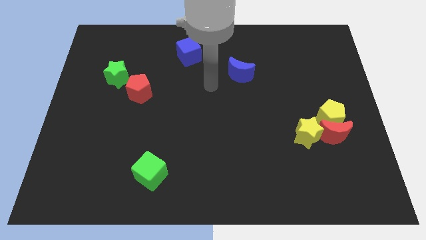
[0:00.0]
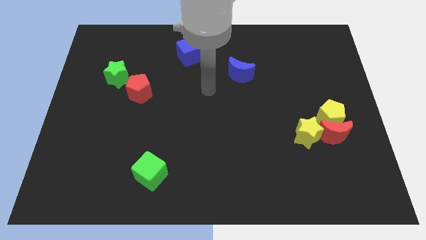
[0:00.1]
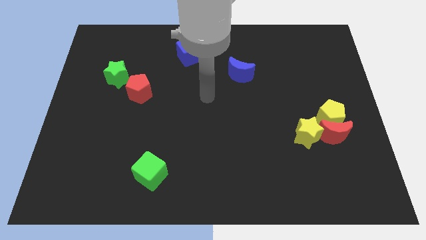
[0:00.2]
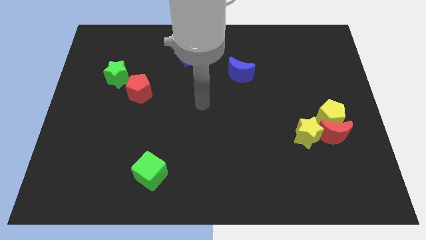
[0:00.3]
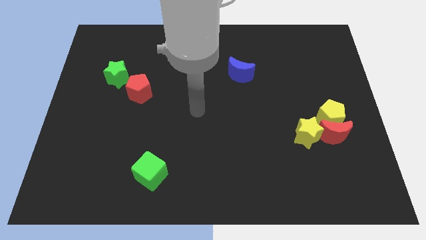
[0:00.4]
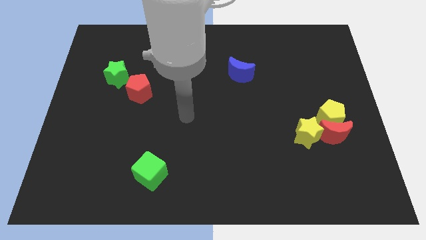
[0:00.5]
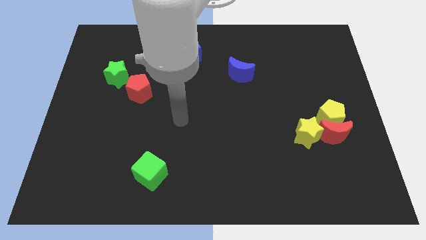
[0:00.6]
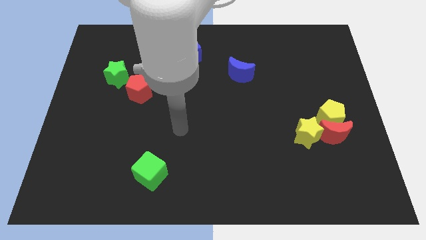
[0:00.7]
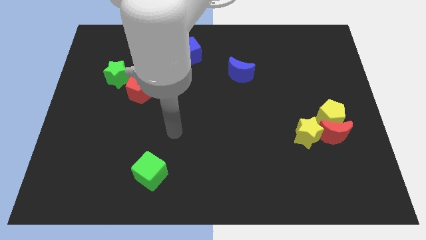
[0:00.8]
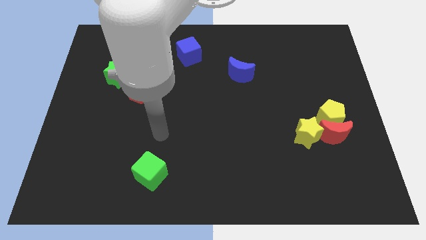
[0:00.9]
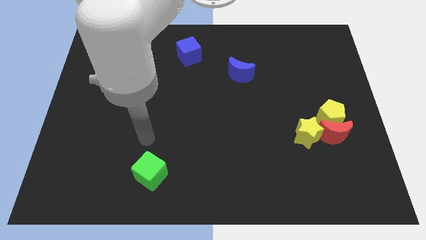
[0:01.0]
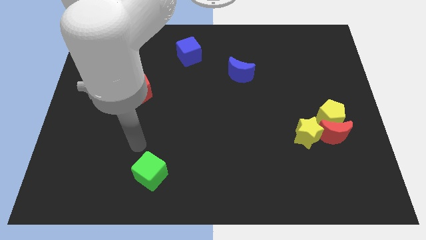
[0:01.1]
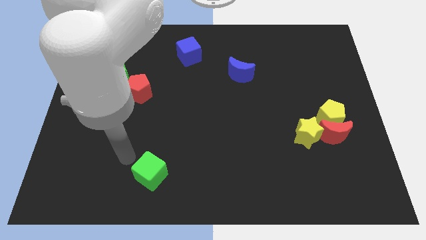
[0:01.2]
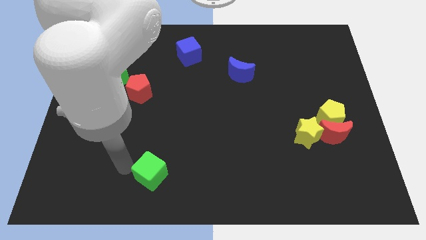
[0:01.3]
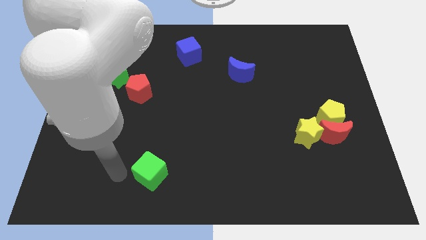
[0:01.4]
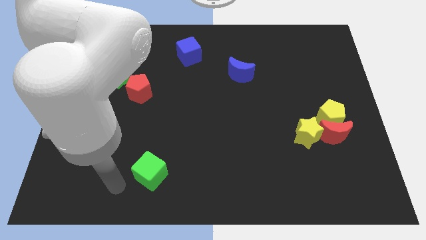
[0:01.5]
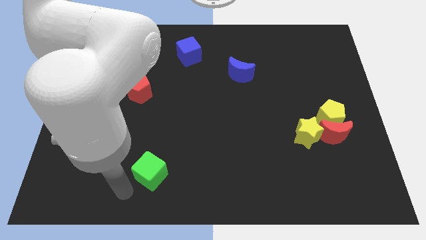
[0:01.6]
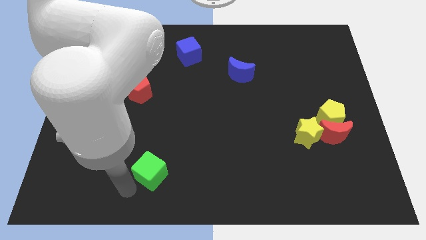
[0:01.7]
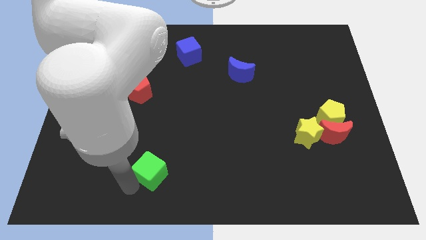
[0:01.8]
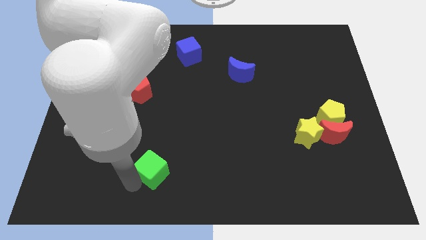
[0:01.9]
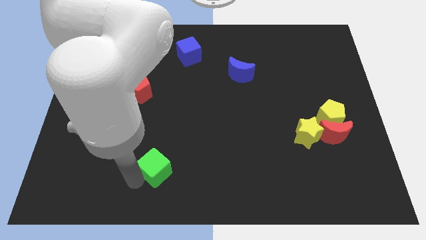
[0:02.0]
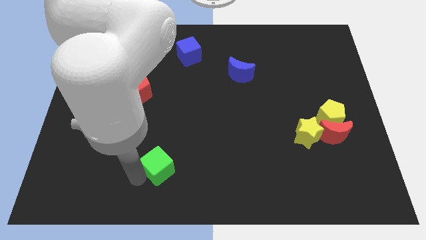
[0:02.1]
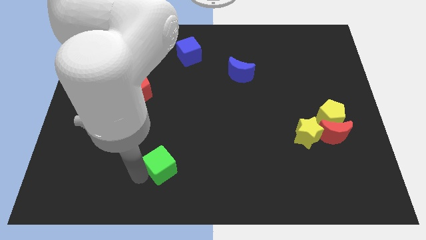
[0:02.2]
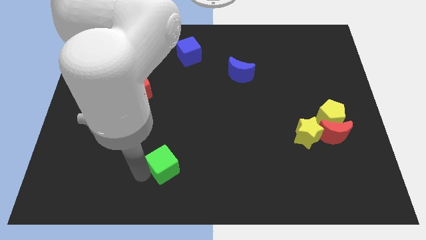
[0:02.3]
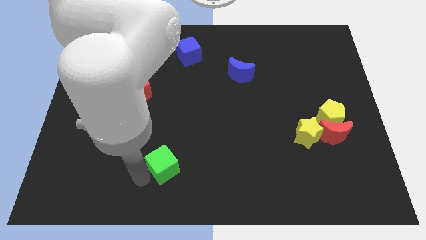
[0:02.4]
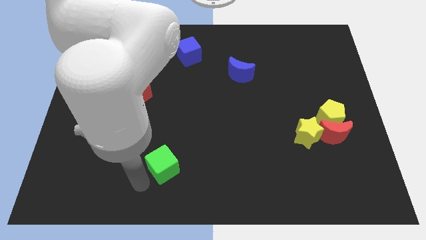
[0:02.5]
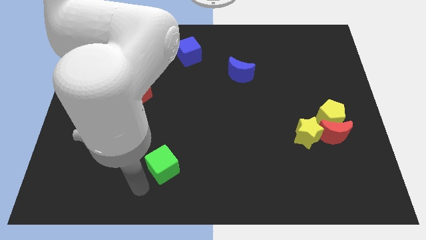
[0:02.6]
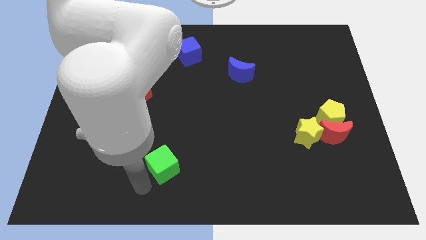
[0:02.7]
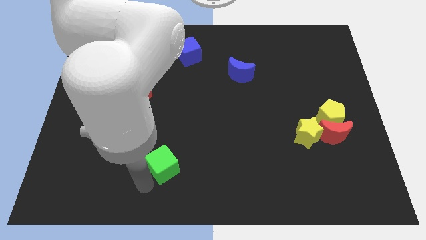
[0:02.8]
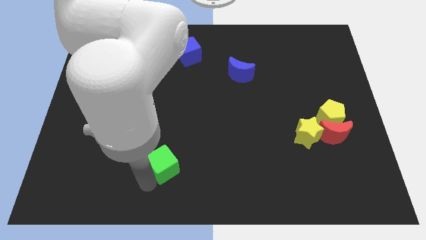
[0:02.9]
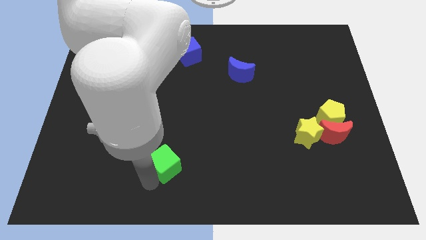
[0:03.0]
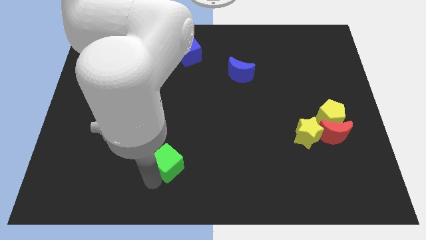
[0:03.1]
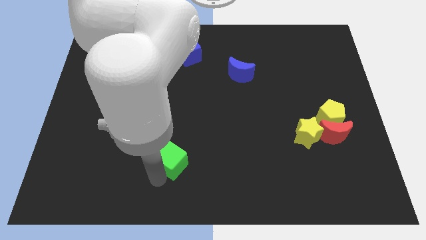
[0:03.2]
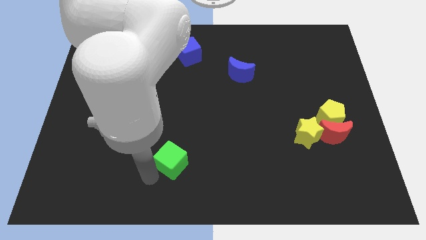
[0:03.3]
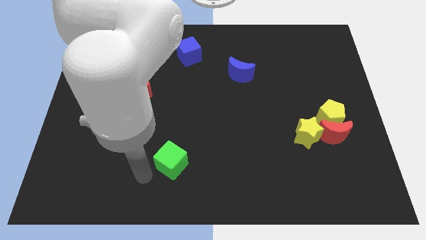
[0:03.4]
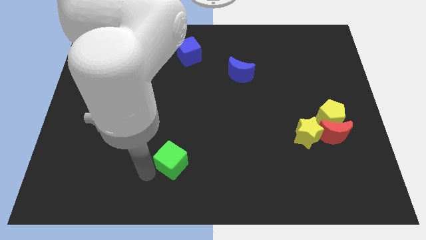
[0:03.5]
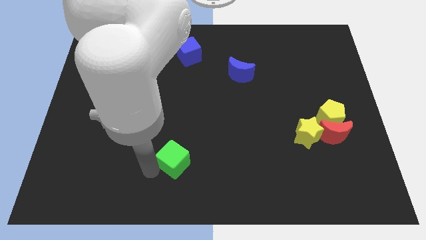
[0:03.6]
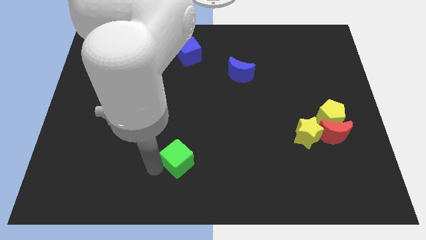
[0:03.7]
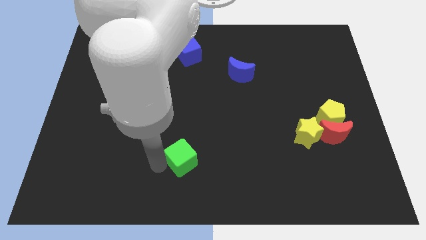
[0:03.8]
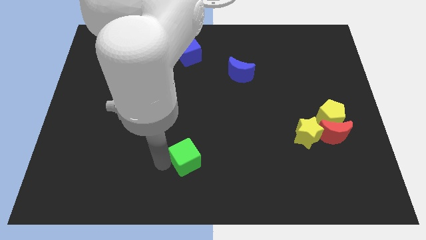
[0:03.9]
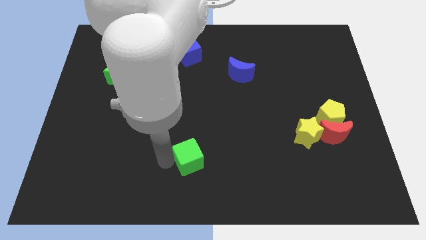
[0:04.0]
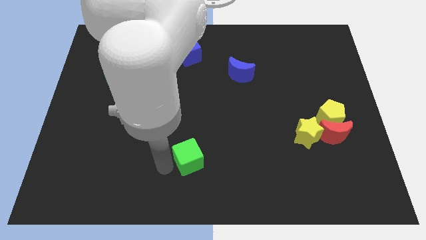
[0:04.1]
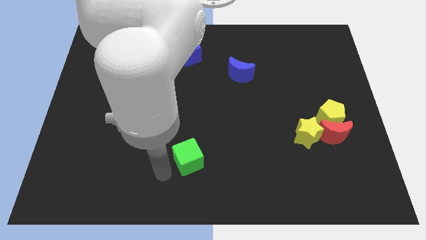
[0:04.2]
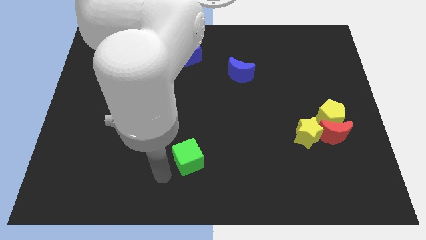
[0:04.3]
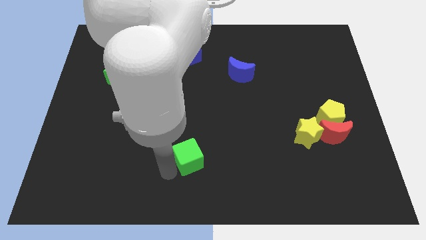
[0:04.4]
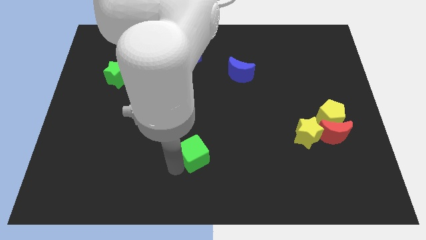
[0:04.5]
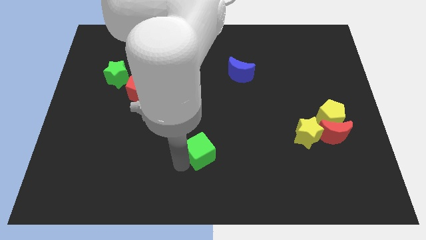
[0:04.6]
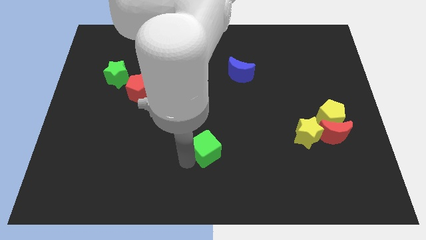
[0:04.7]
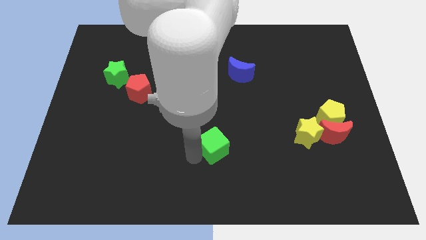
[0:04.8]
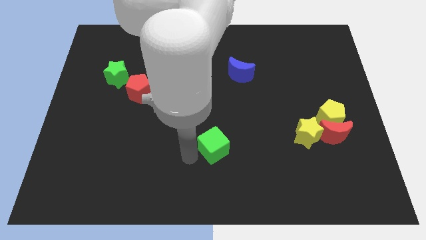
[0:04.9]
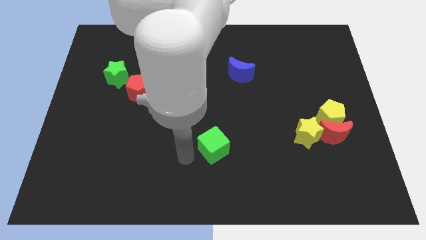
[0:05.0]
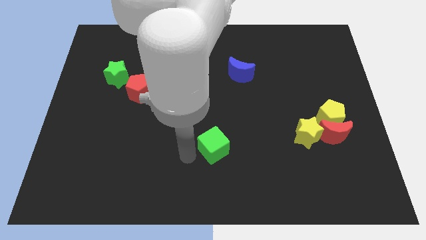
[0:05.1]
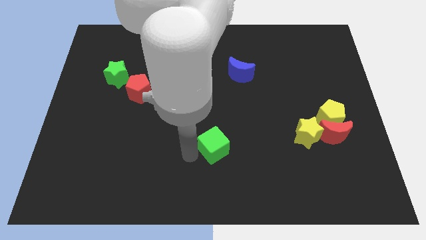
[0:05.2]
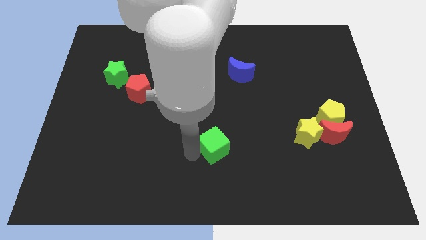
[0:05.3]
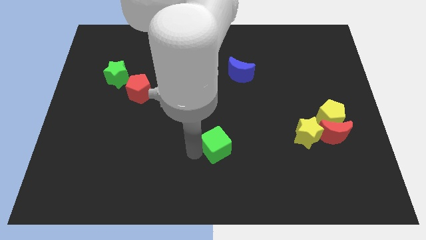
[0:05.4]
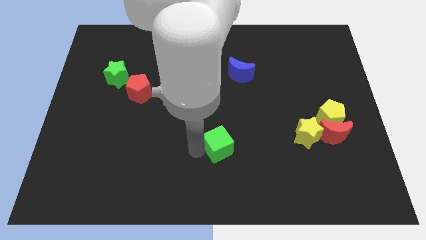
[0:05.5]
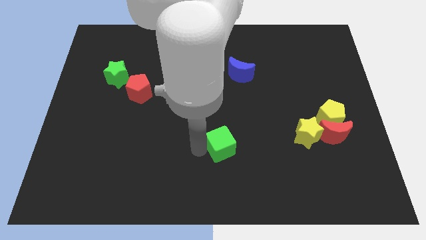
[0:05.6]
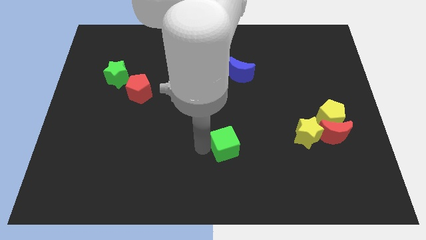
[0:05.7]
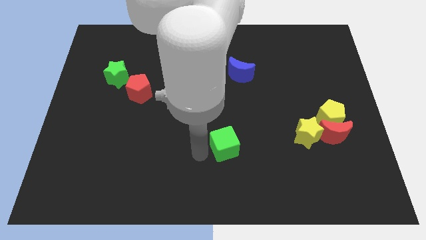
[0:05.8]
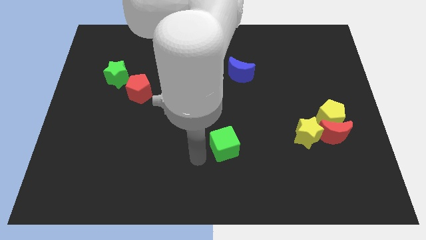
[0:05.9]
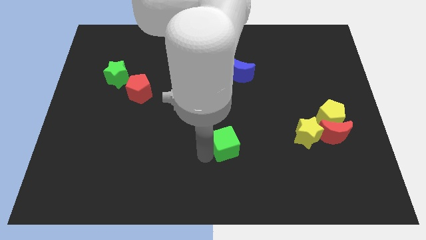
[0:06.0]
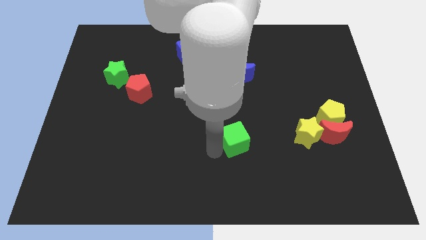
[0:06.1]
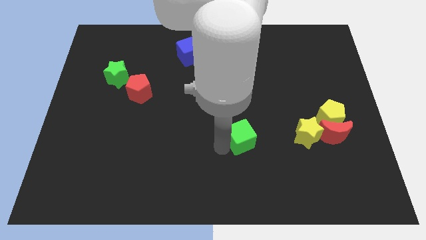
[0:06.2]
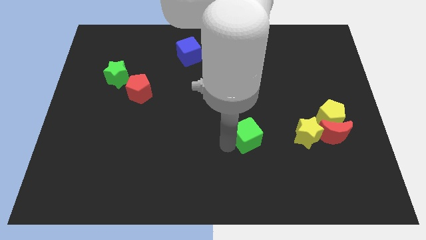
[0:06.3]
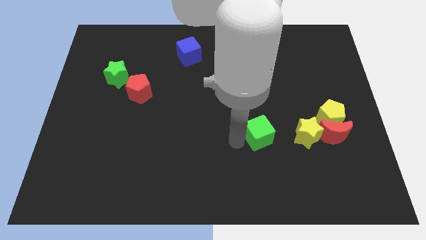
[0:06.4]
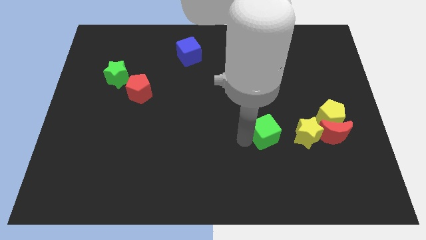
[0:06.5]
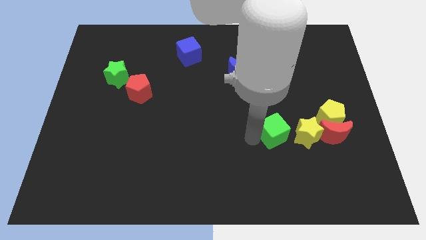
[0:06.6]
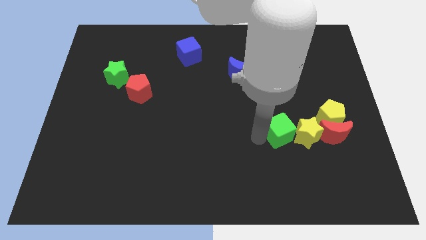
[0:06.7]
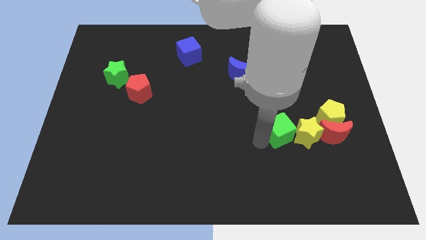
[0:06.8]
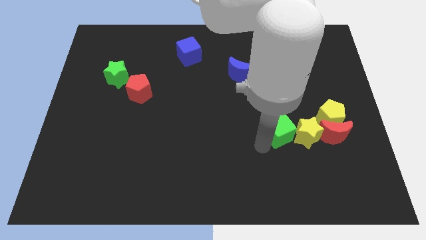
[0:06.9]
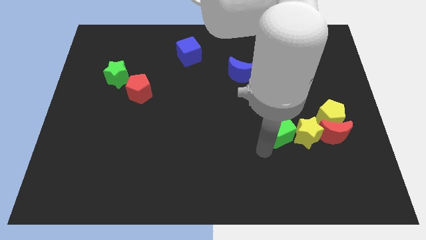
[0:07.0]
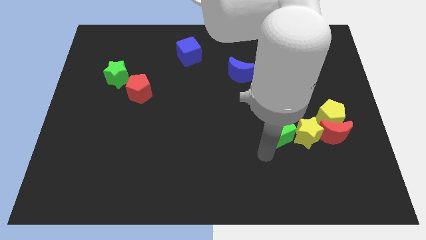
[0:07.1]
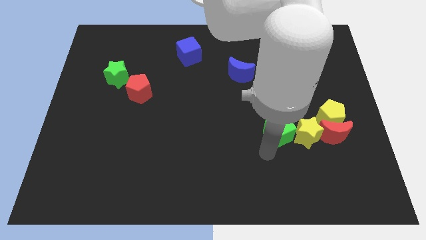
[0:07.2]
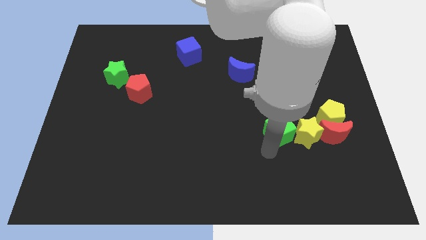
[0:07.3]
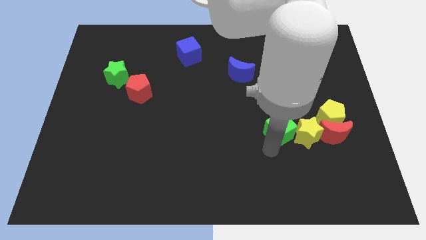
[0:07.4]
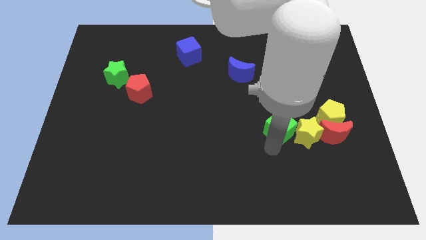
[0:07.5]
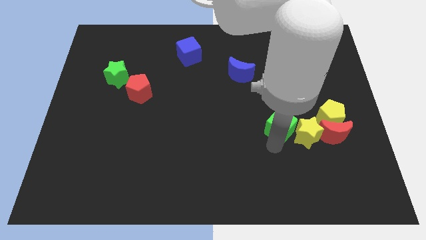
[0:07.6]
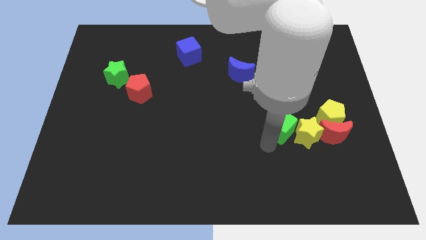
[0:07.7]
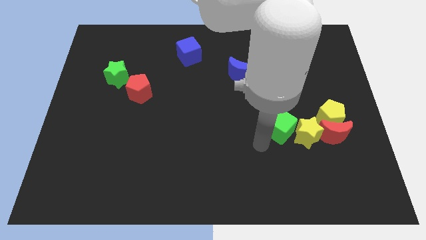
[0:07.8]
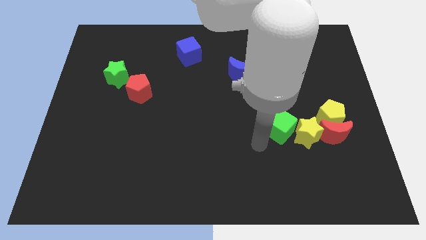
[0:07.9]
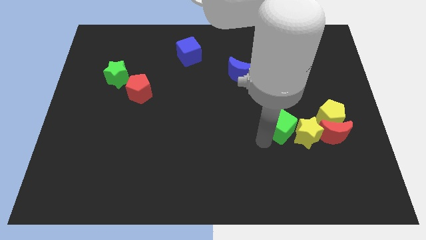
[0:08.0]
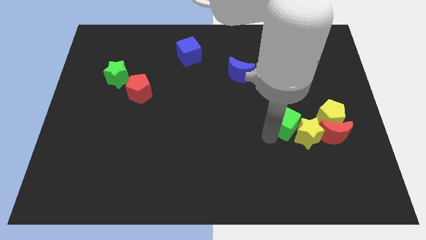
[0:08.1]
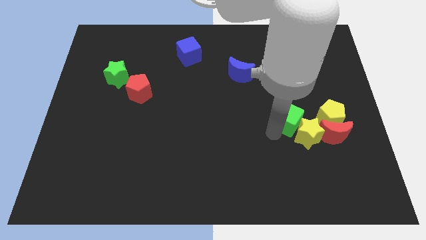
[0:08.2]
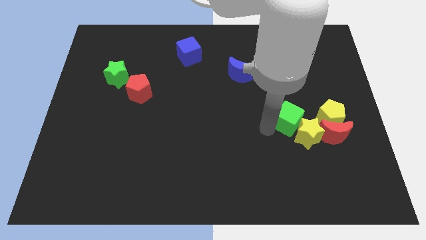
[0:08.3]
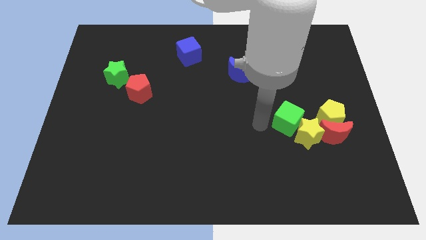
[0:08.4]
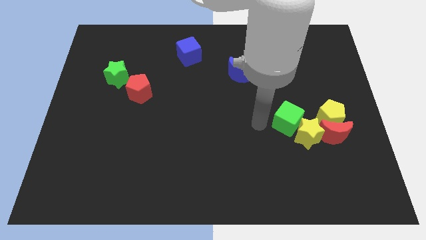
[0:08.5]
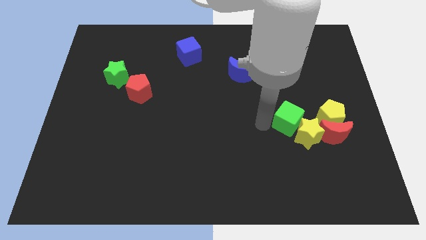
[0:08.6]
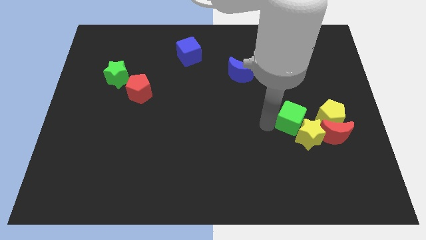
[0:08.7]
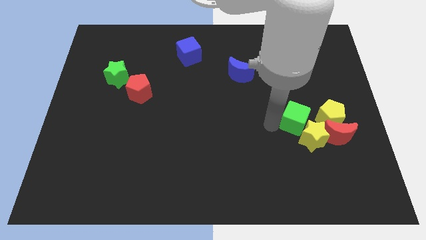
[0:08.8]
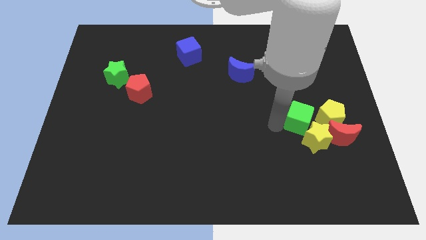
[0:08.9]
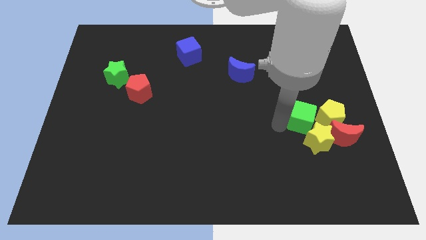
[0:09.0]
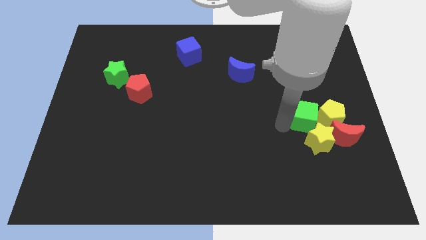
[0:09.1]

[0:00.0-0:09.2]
move the green cube to the yellow pentagon
